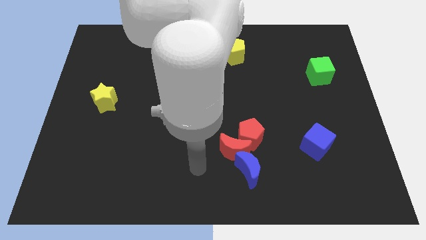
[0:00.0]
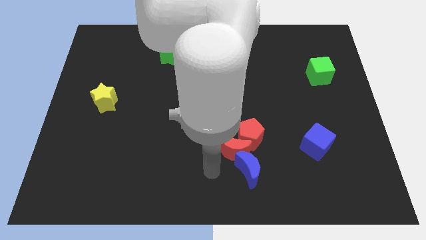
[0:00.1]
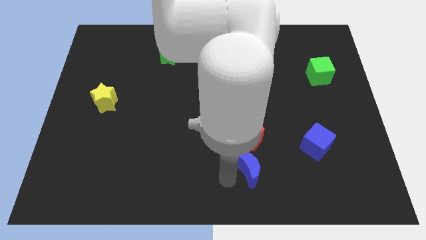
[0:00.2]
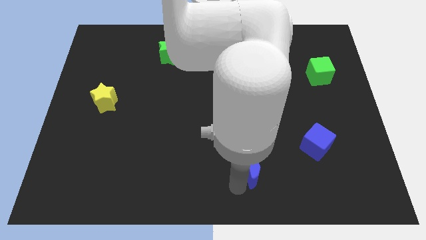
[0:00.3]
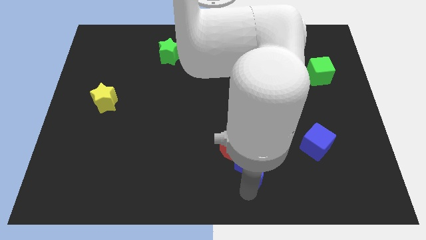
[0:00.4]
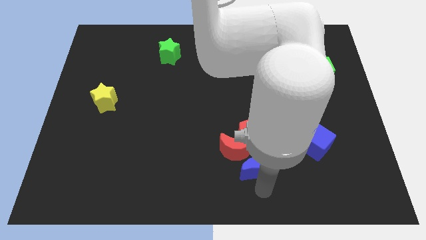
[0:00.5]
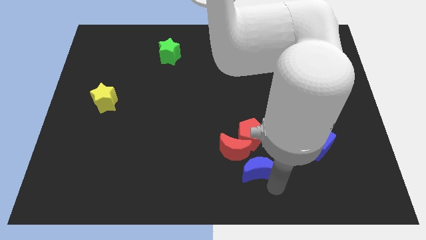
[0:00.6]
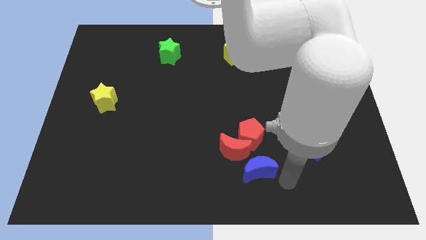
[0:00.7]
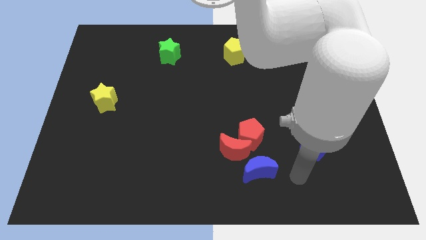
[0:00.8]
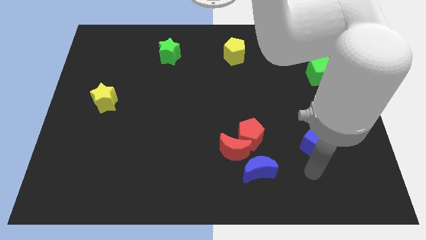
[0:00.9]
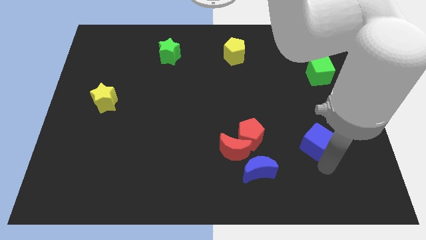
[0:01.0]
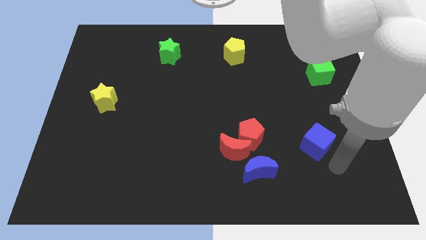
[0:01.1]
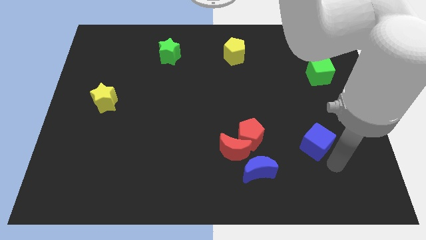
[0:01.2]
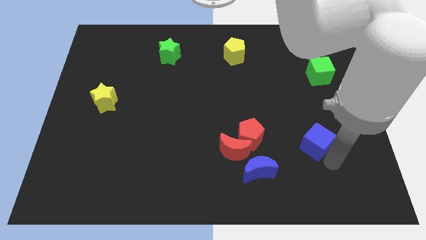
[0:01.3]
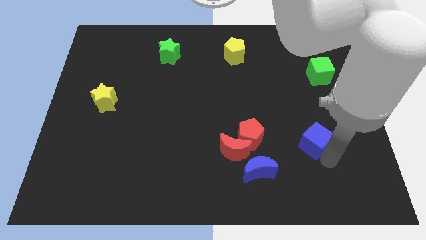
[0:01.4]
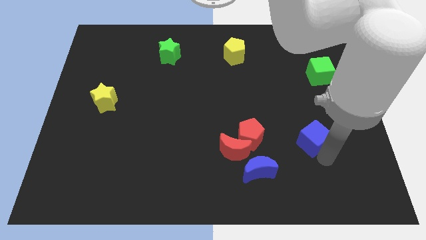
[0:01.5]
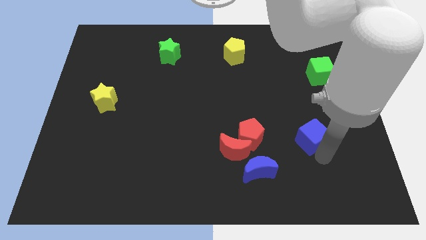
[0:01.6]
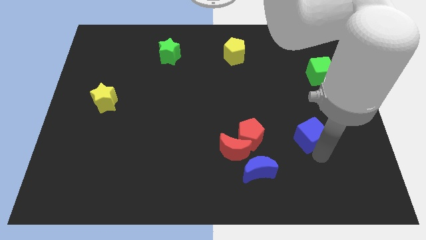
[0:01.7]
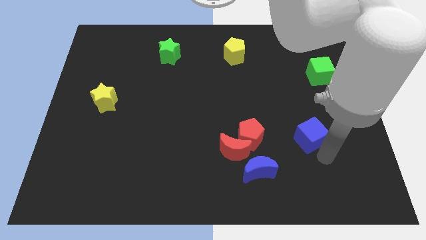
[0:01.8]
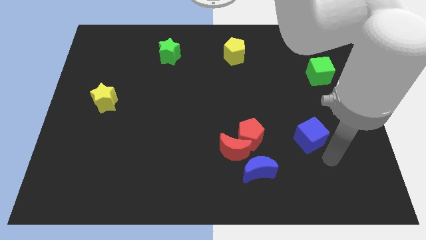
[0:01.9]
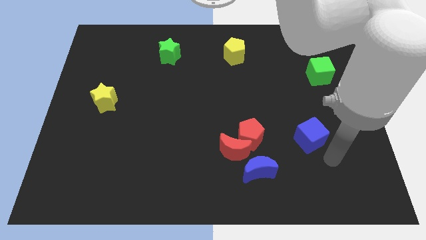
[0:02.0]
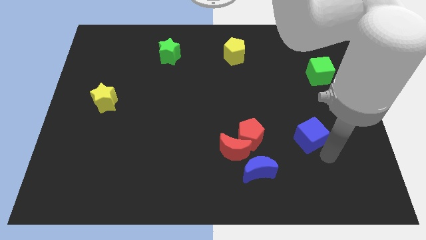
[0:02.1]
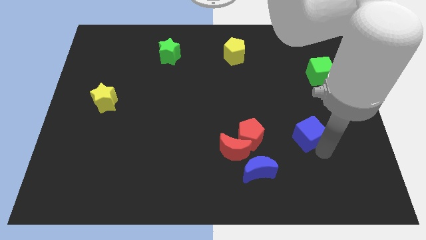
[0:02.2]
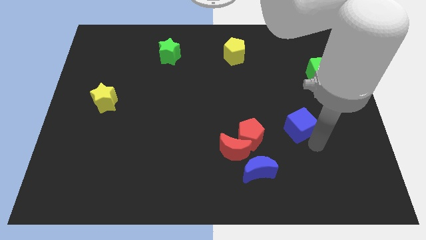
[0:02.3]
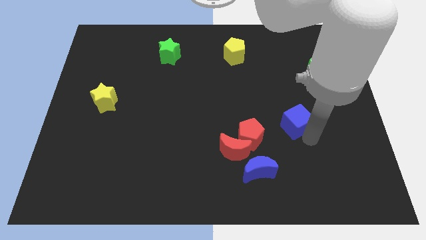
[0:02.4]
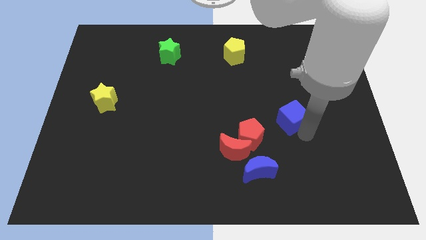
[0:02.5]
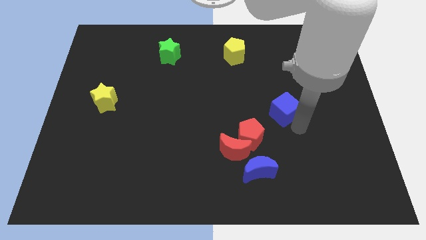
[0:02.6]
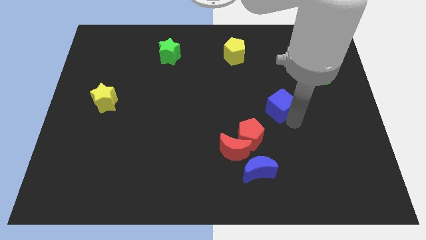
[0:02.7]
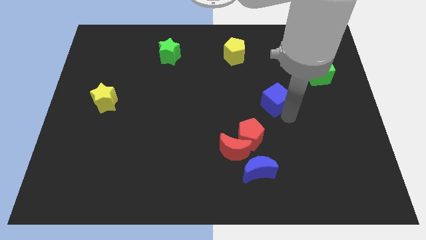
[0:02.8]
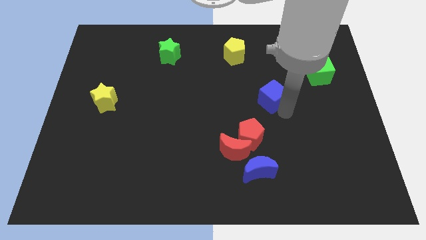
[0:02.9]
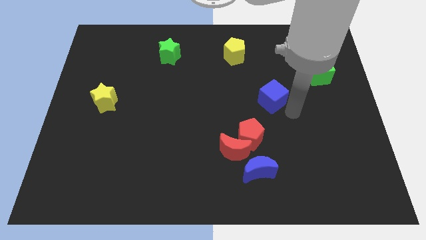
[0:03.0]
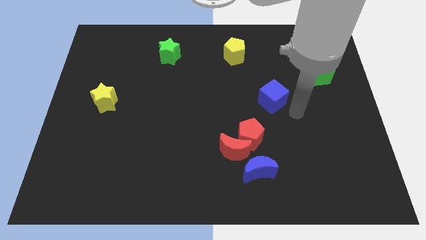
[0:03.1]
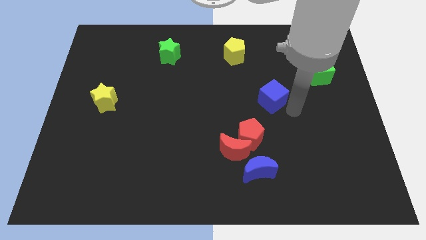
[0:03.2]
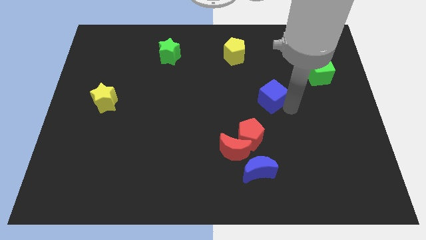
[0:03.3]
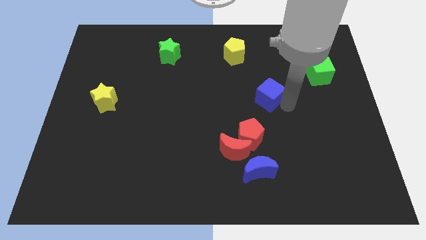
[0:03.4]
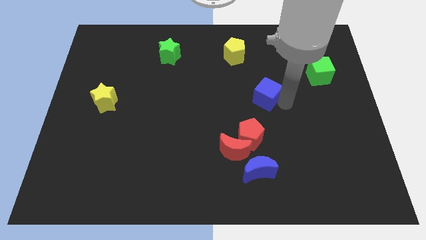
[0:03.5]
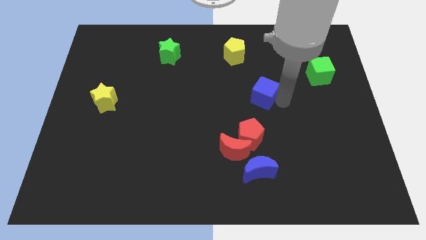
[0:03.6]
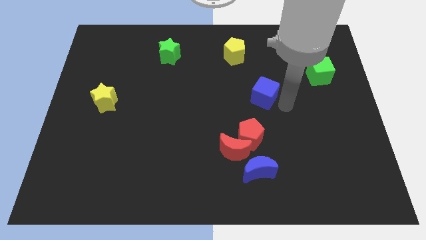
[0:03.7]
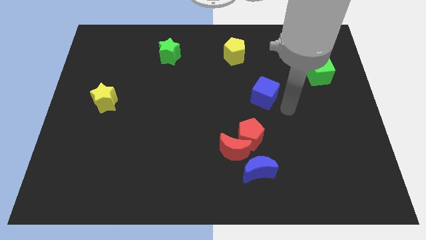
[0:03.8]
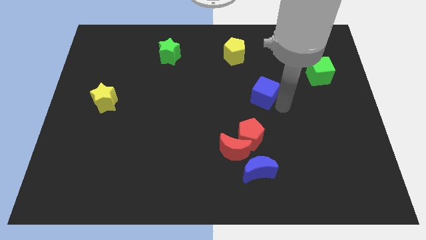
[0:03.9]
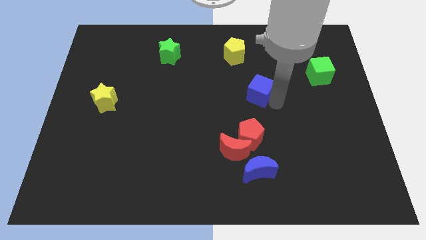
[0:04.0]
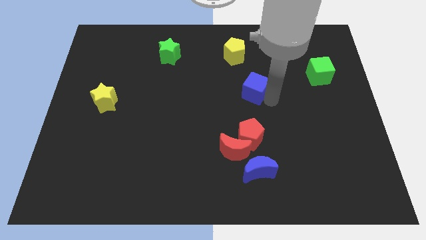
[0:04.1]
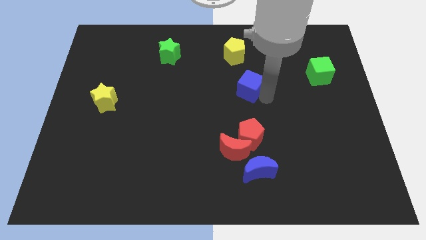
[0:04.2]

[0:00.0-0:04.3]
move the blue cube upwards and left diagonally

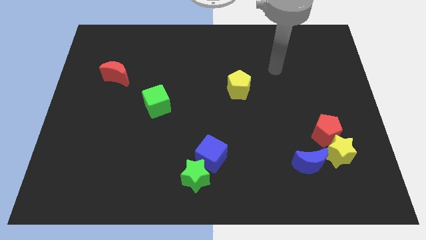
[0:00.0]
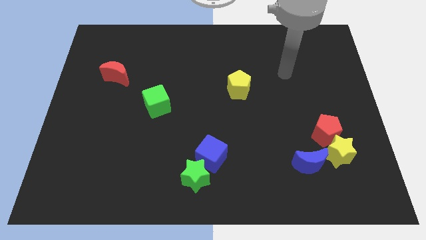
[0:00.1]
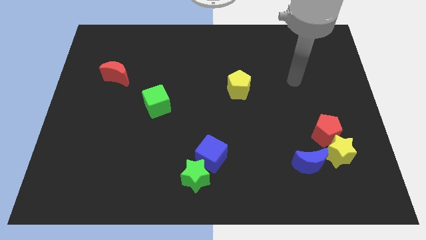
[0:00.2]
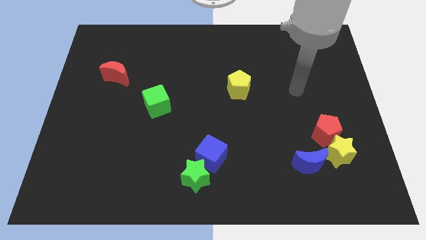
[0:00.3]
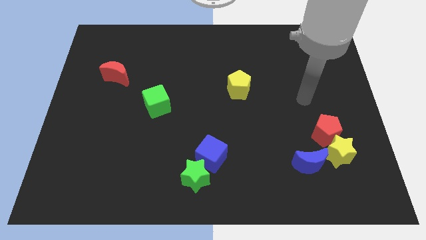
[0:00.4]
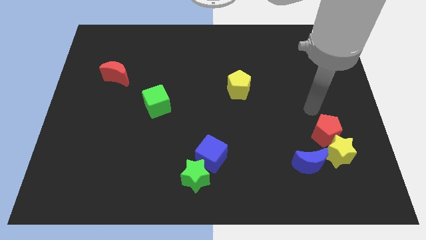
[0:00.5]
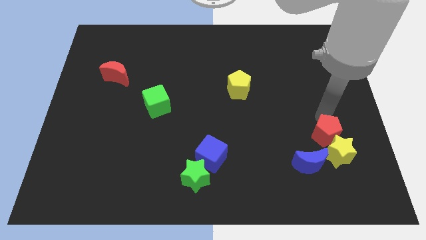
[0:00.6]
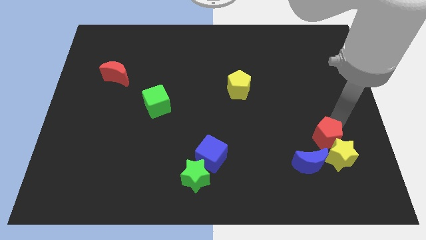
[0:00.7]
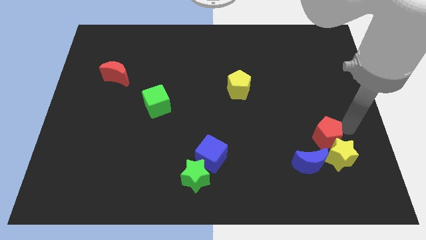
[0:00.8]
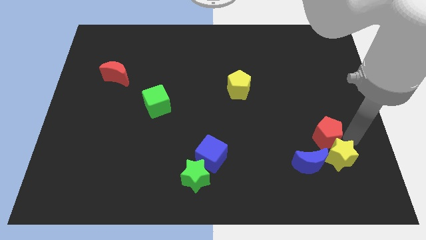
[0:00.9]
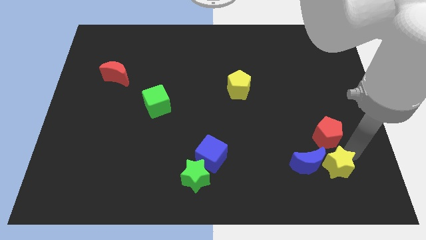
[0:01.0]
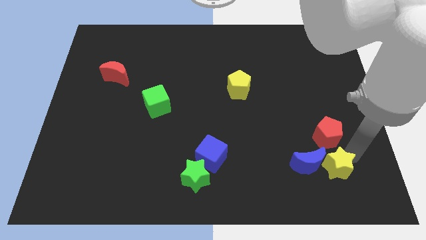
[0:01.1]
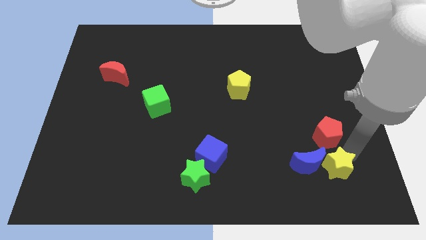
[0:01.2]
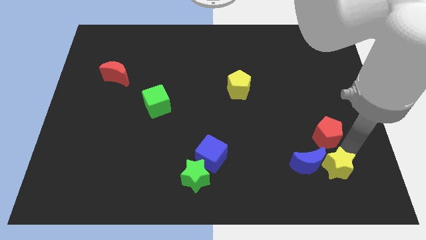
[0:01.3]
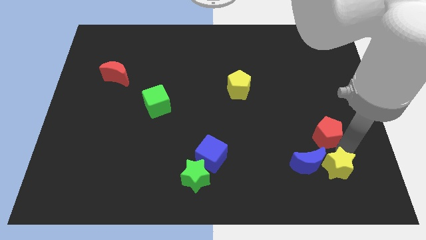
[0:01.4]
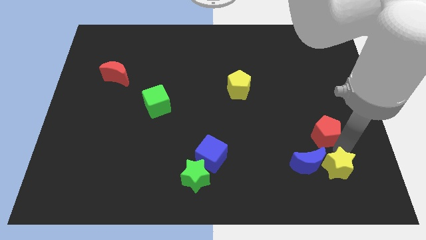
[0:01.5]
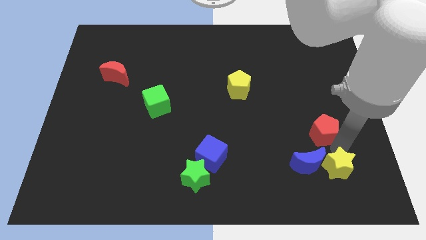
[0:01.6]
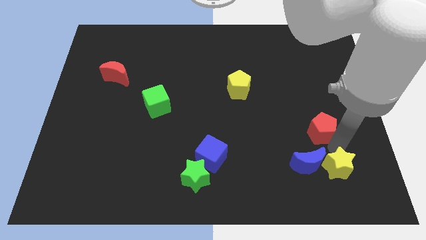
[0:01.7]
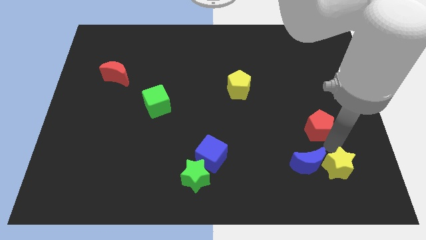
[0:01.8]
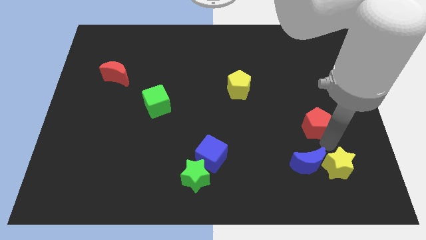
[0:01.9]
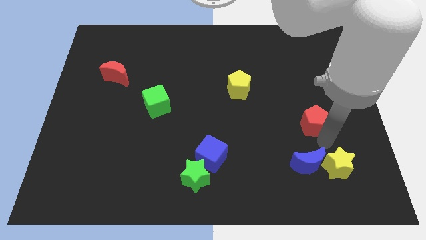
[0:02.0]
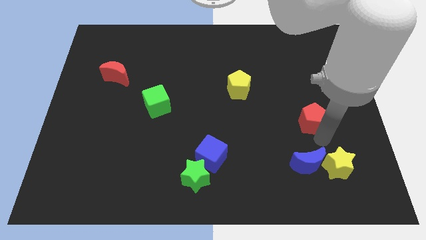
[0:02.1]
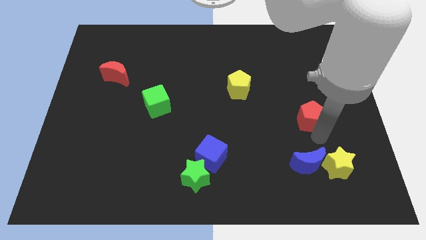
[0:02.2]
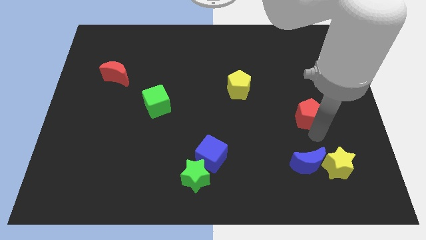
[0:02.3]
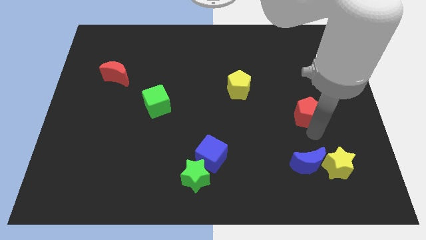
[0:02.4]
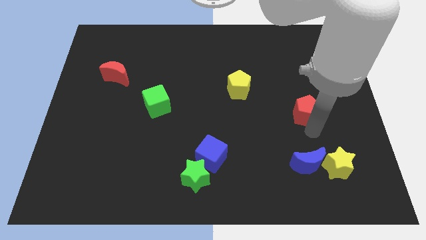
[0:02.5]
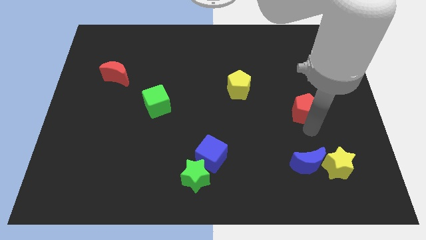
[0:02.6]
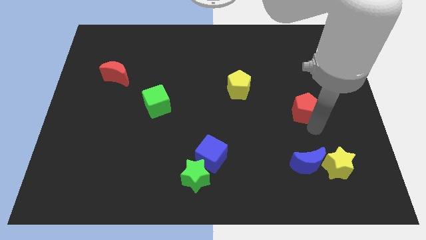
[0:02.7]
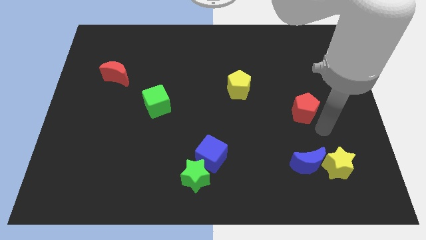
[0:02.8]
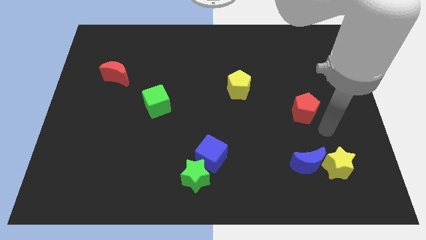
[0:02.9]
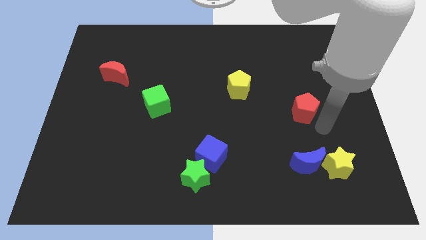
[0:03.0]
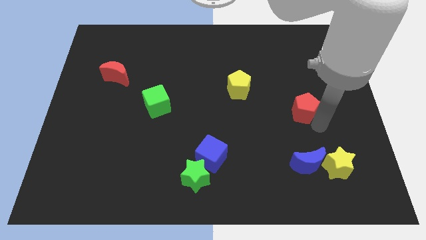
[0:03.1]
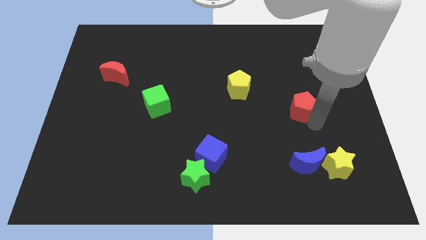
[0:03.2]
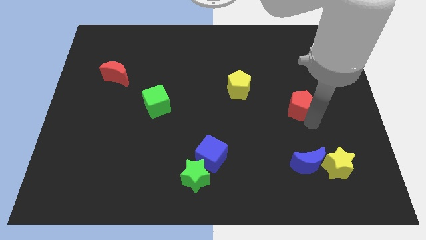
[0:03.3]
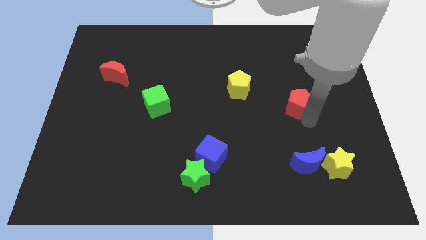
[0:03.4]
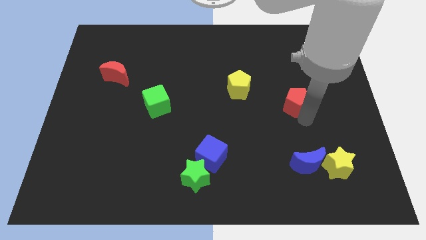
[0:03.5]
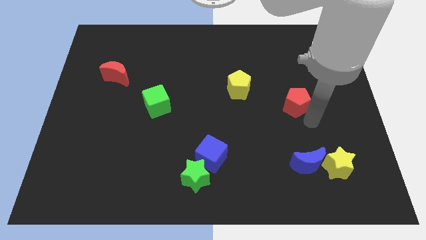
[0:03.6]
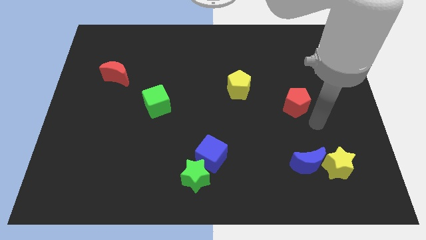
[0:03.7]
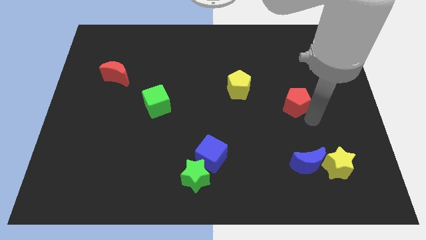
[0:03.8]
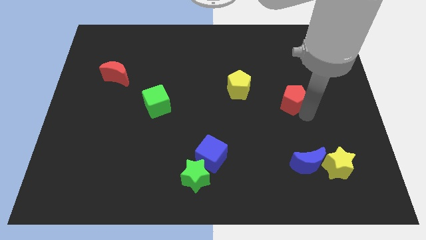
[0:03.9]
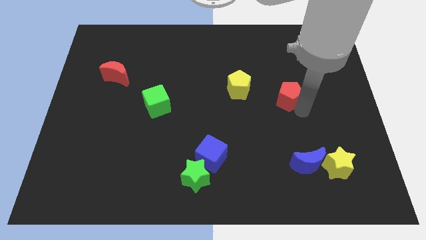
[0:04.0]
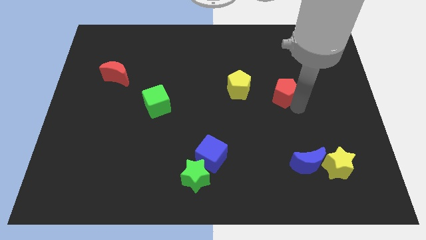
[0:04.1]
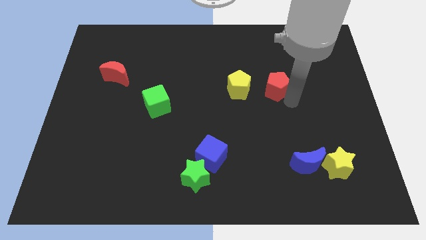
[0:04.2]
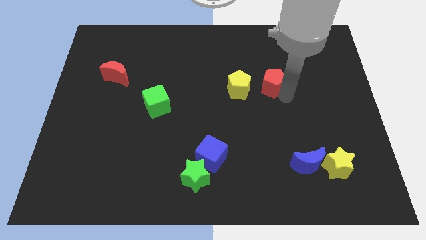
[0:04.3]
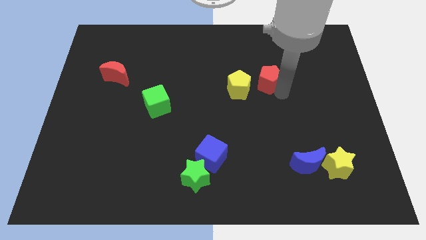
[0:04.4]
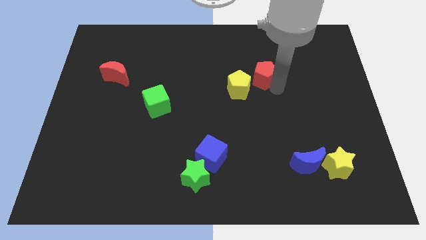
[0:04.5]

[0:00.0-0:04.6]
push the red pentagon diagonally up and to the left

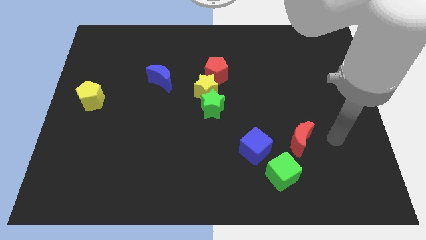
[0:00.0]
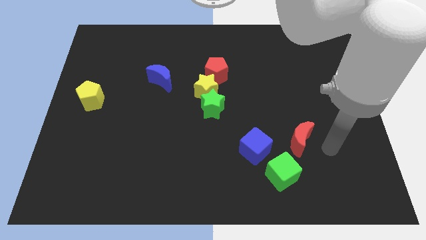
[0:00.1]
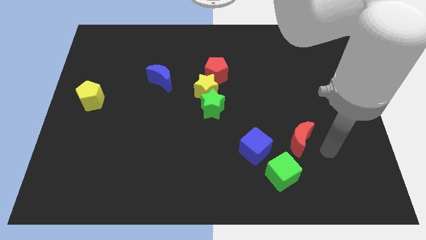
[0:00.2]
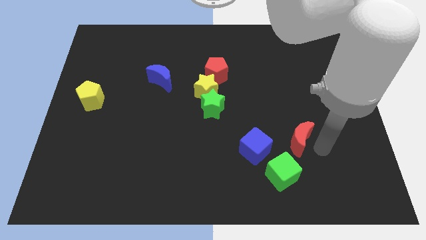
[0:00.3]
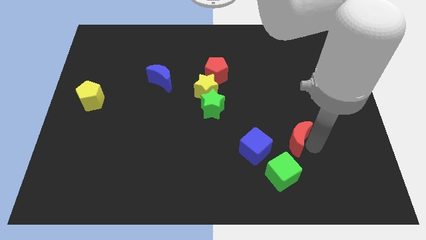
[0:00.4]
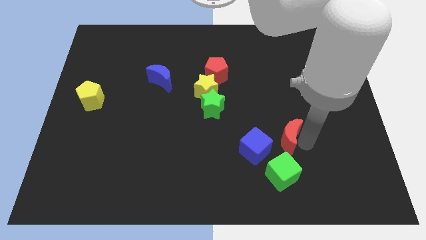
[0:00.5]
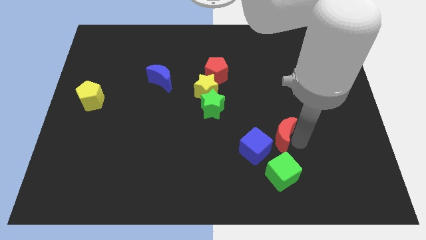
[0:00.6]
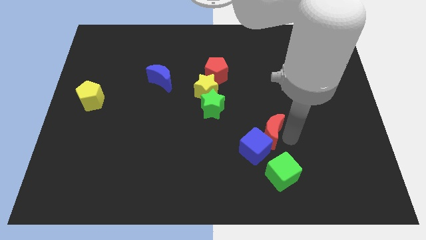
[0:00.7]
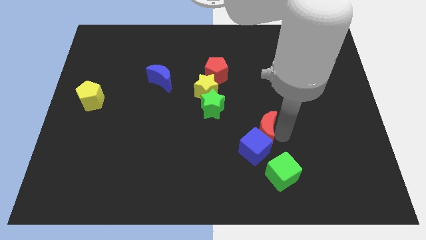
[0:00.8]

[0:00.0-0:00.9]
move the red moon to the left slightly
